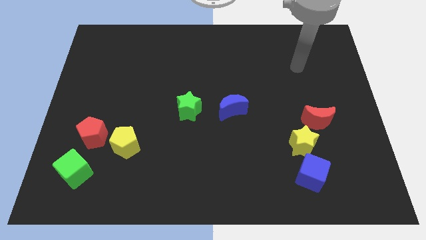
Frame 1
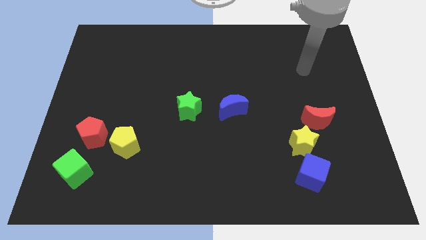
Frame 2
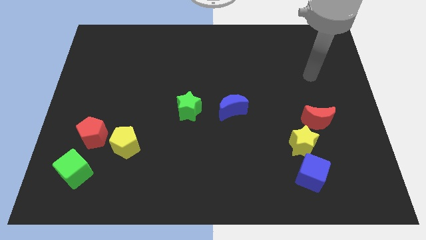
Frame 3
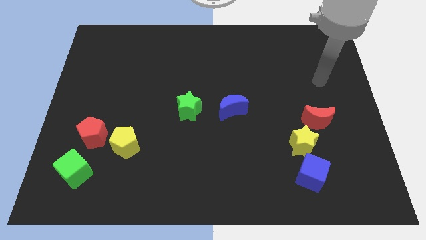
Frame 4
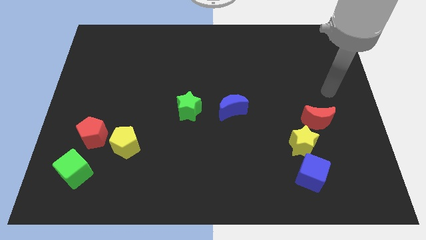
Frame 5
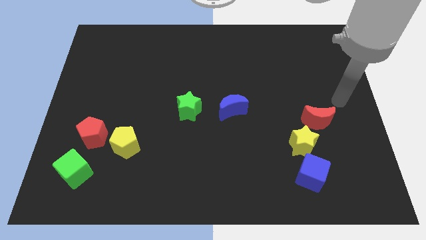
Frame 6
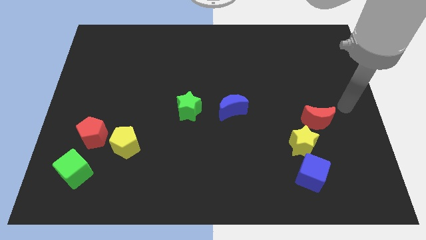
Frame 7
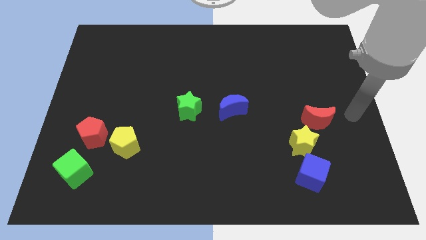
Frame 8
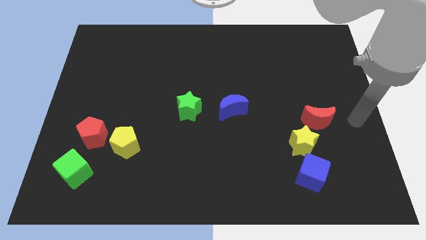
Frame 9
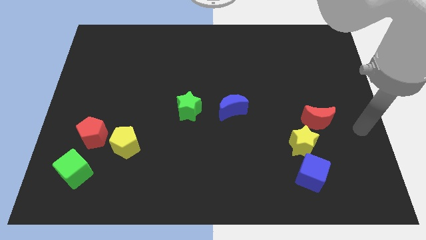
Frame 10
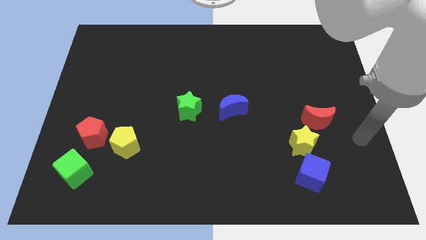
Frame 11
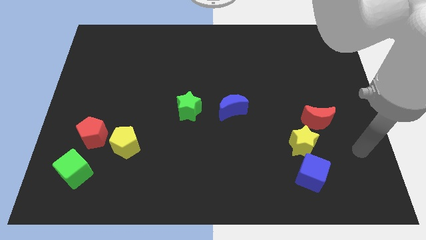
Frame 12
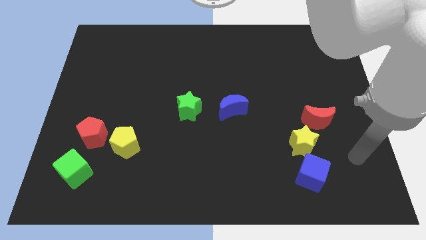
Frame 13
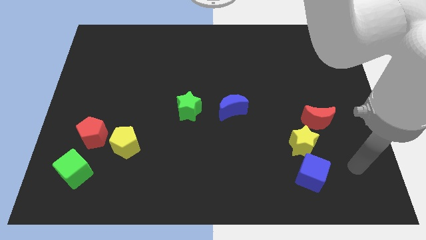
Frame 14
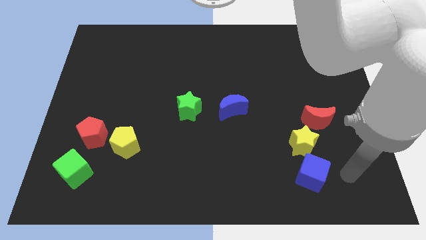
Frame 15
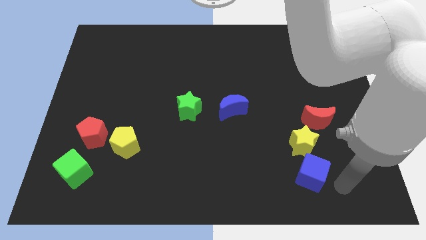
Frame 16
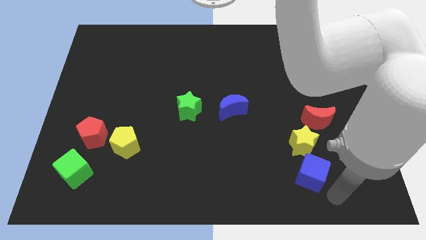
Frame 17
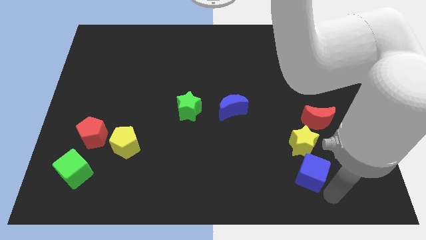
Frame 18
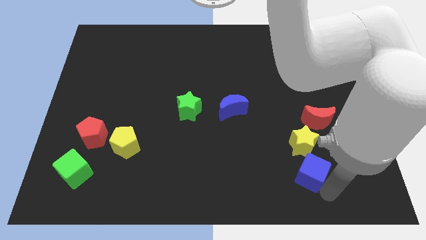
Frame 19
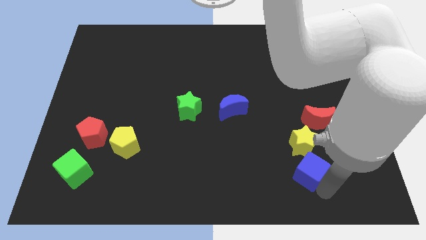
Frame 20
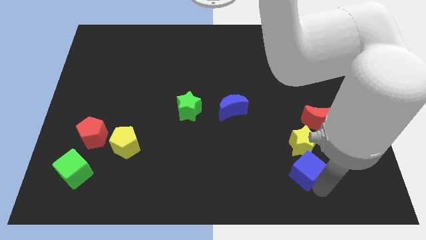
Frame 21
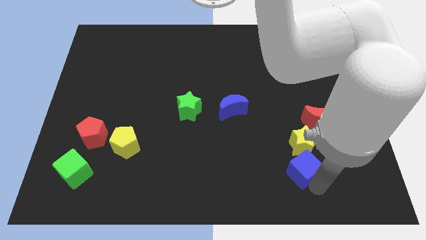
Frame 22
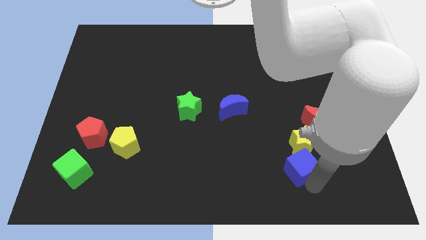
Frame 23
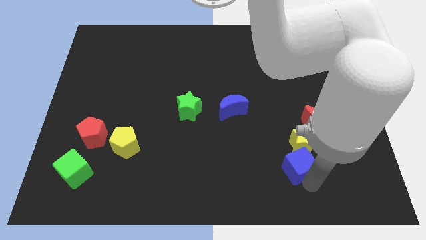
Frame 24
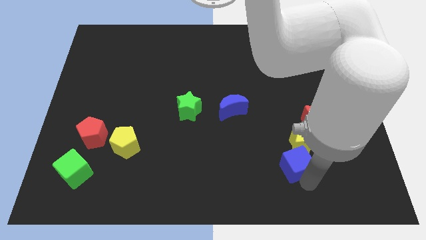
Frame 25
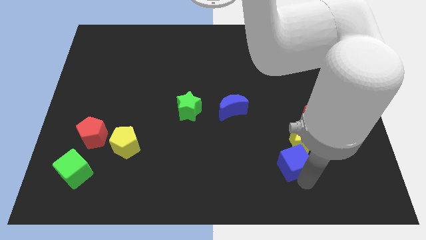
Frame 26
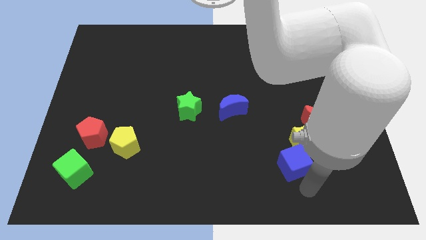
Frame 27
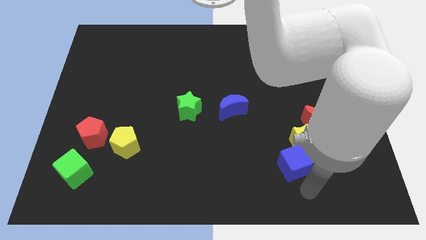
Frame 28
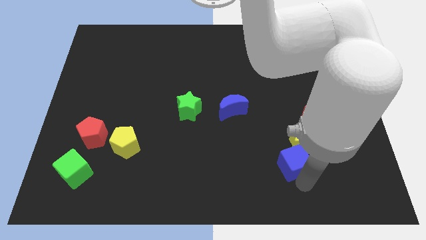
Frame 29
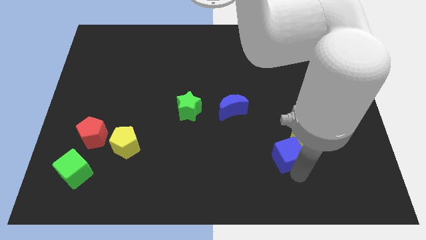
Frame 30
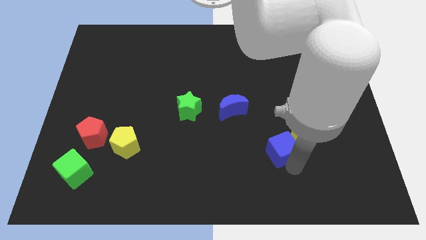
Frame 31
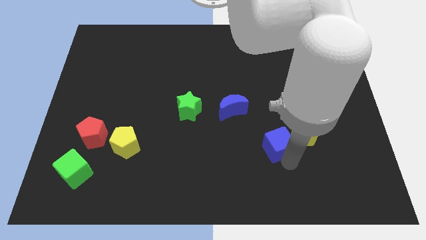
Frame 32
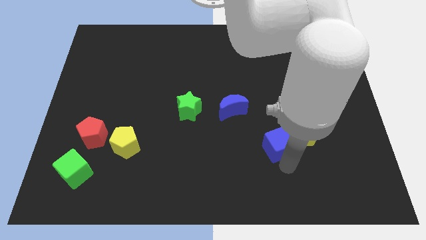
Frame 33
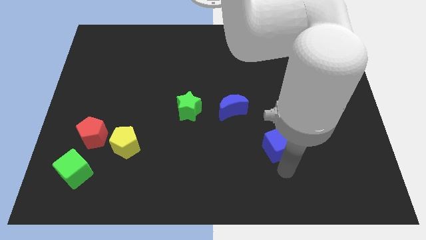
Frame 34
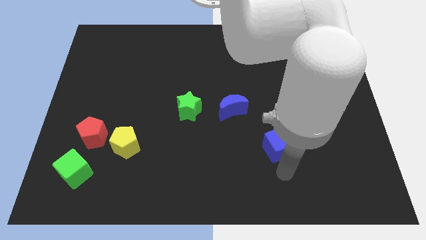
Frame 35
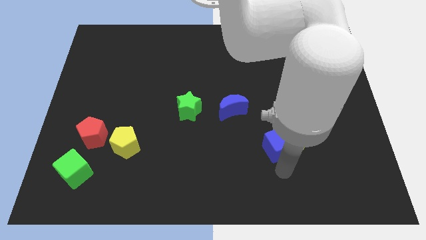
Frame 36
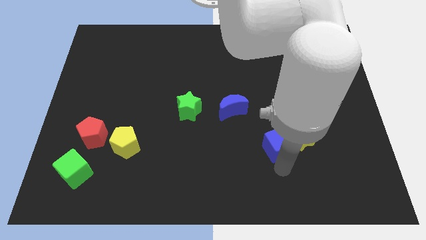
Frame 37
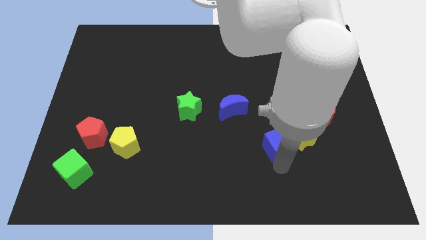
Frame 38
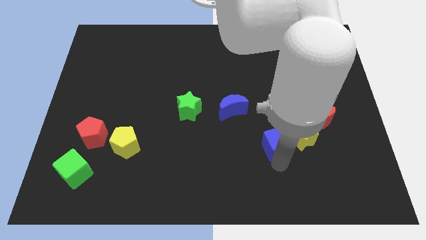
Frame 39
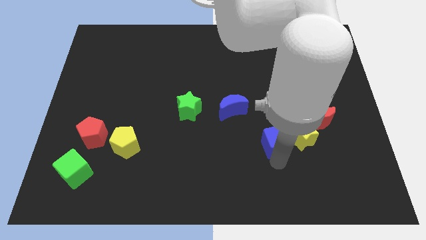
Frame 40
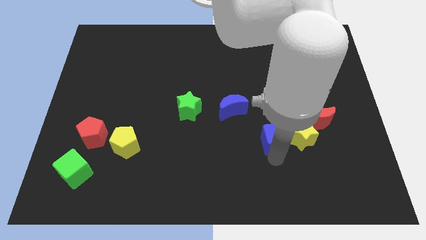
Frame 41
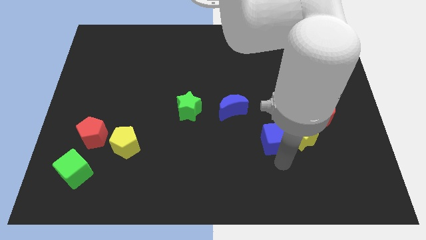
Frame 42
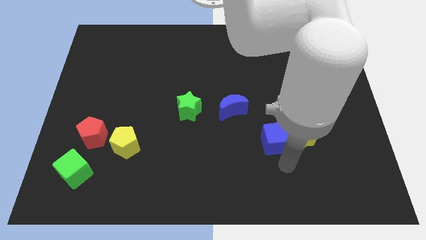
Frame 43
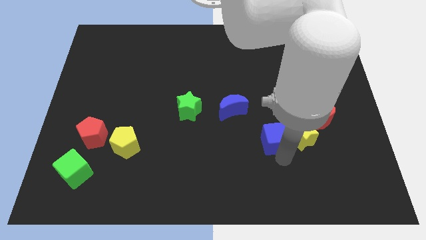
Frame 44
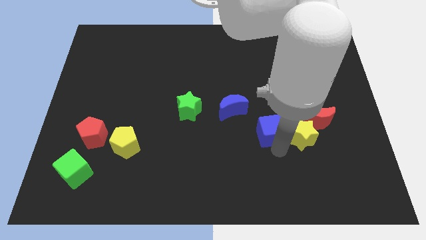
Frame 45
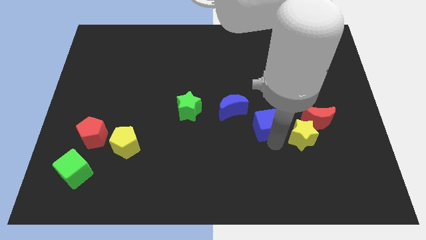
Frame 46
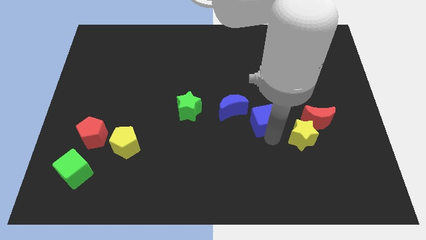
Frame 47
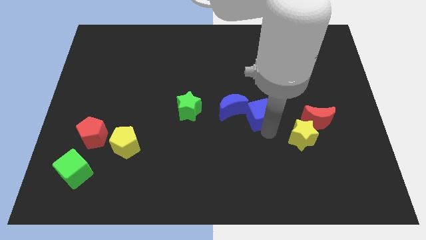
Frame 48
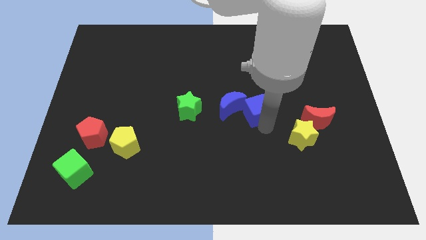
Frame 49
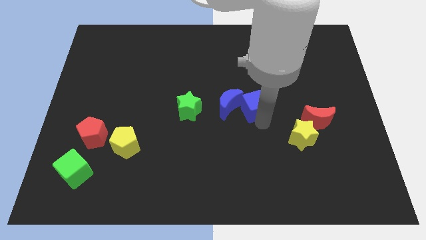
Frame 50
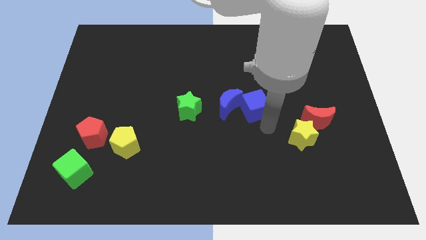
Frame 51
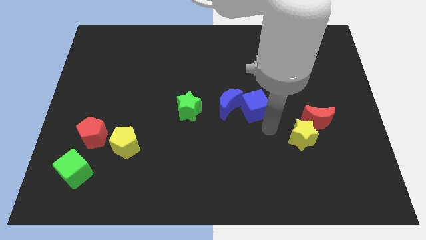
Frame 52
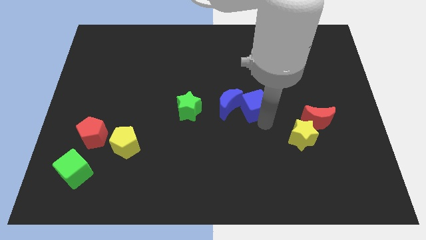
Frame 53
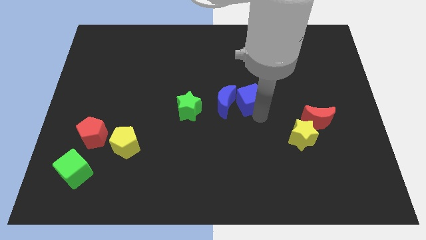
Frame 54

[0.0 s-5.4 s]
slide the blue cube upwards and then left

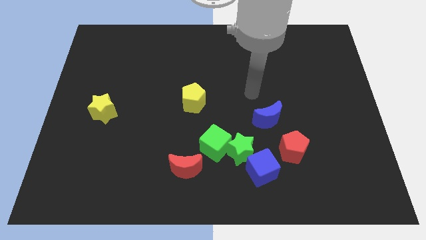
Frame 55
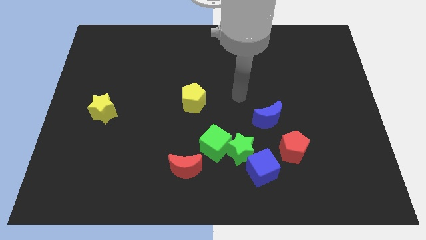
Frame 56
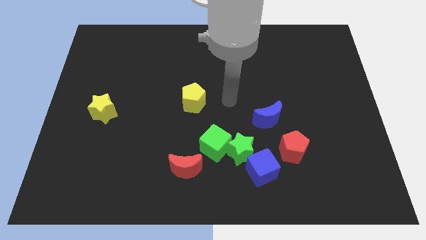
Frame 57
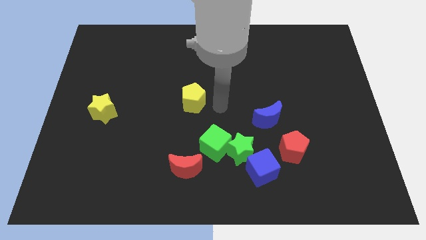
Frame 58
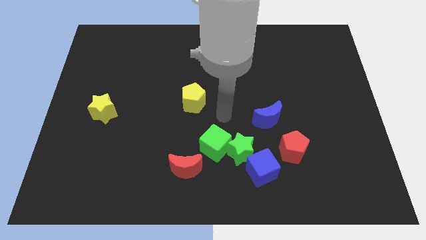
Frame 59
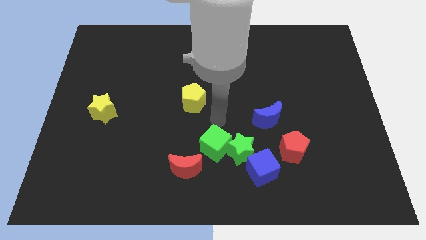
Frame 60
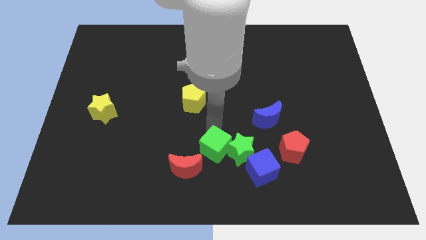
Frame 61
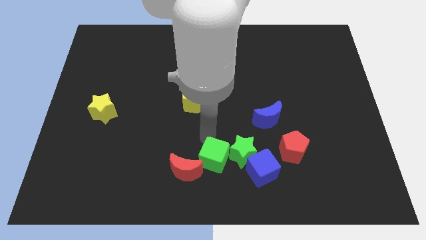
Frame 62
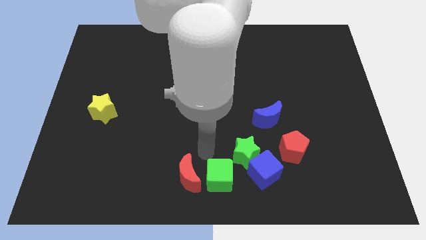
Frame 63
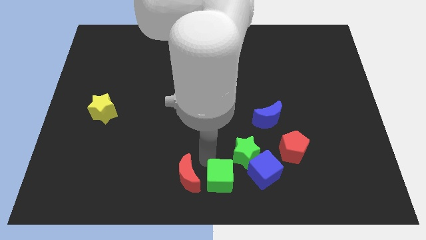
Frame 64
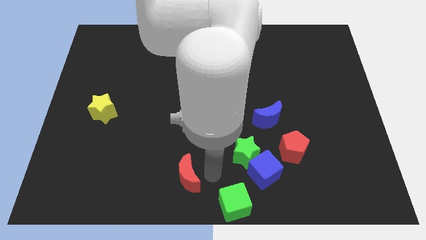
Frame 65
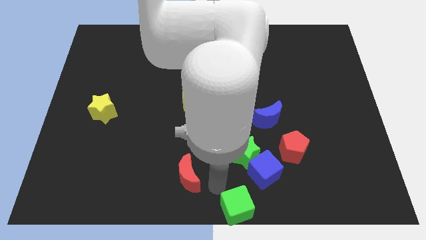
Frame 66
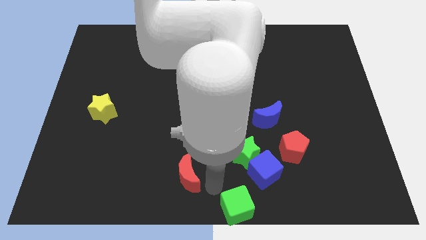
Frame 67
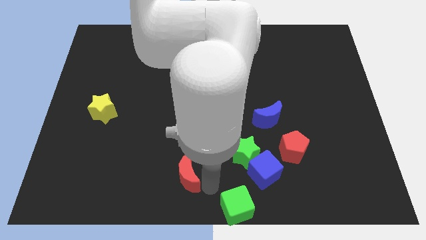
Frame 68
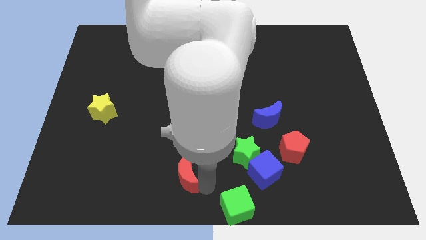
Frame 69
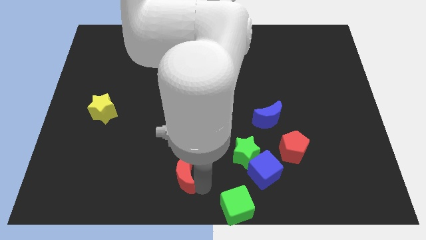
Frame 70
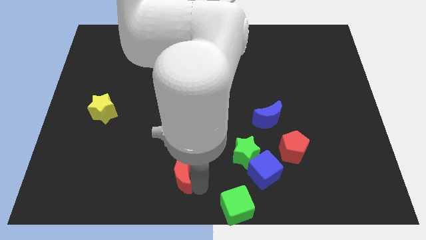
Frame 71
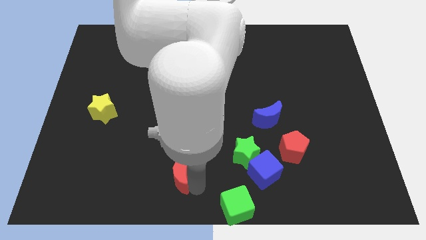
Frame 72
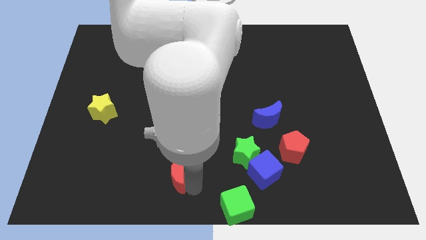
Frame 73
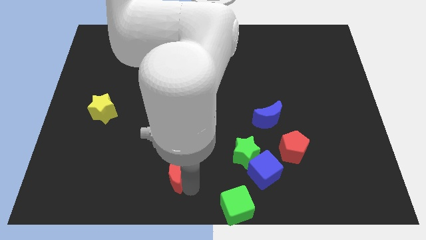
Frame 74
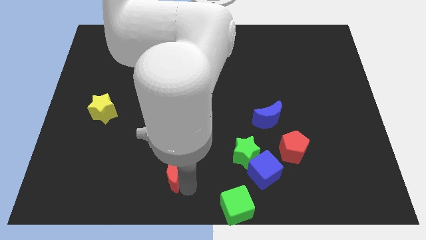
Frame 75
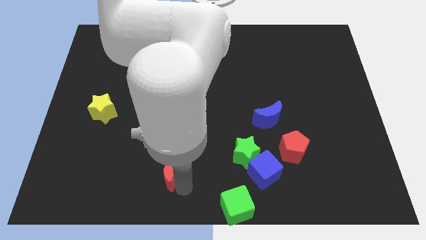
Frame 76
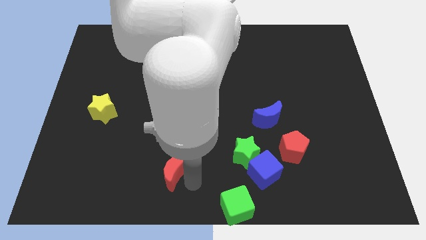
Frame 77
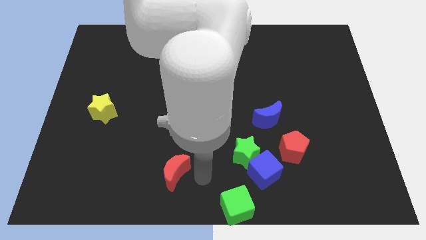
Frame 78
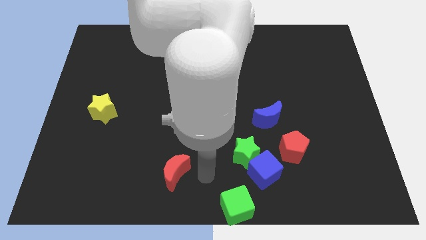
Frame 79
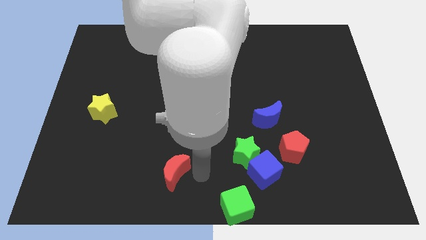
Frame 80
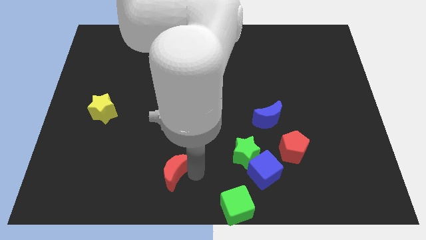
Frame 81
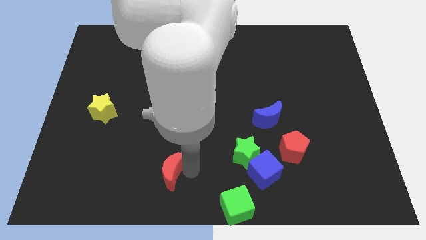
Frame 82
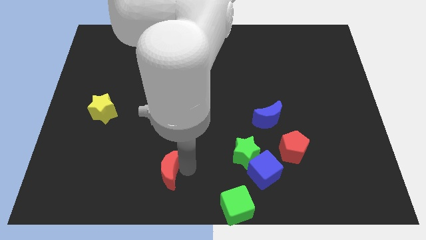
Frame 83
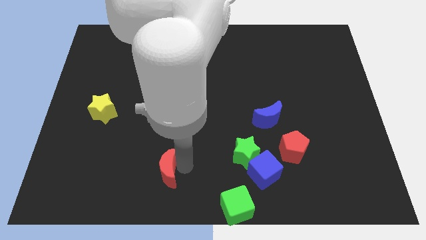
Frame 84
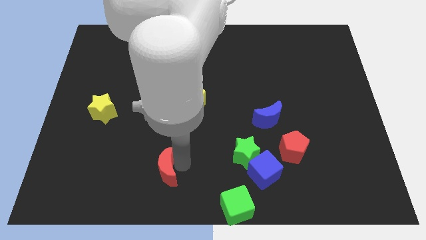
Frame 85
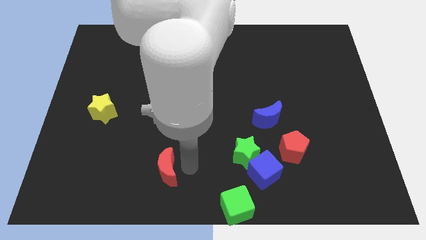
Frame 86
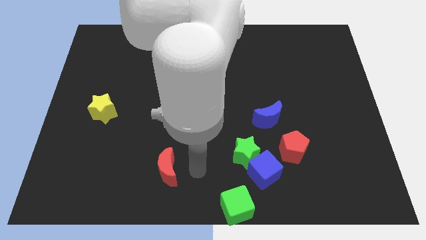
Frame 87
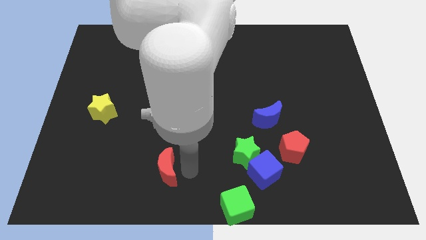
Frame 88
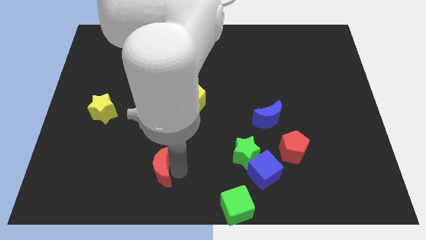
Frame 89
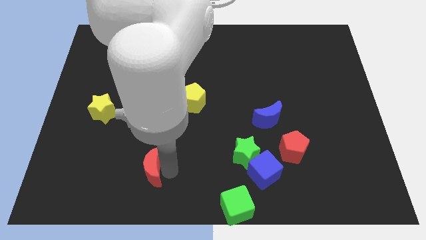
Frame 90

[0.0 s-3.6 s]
slightly slide the red moon left
